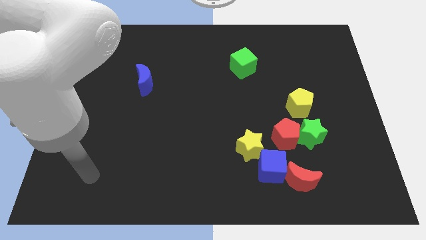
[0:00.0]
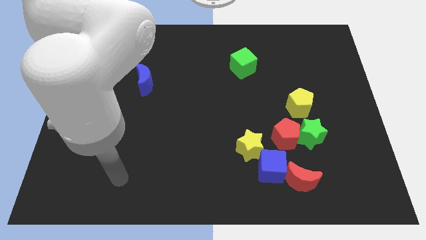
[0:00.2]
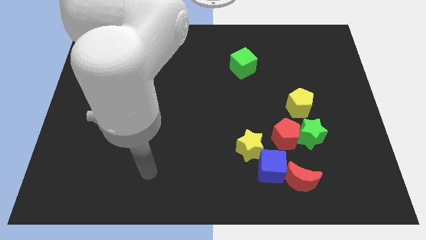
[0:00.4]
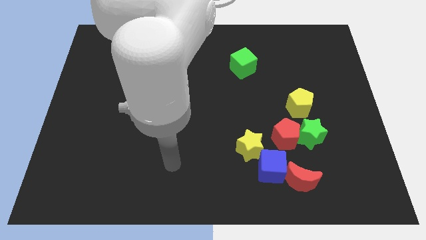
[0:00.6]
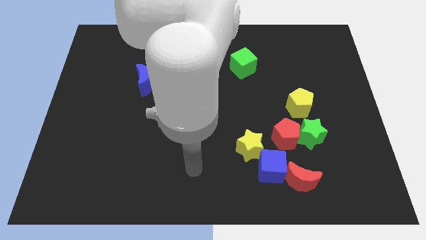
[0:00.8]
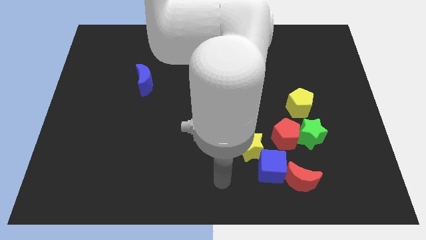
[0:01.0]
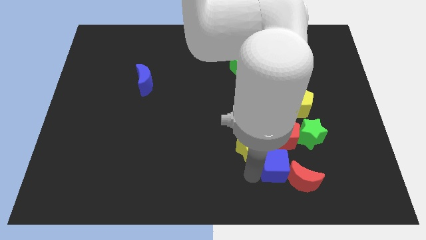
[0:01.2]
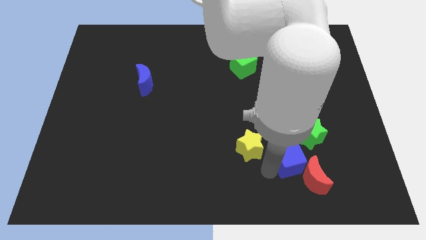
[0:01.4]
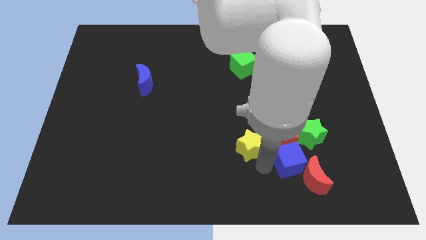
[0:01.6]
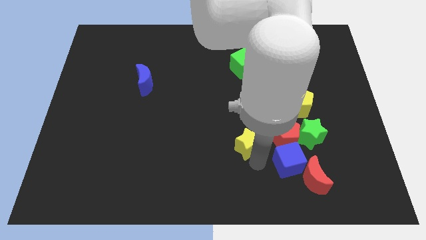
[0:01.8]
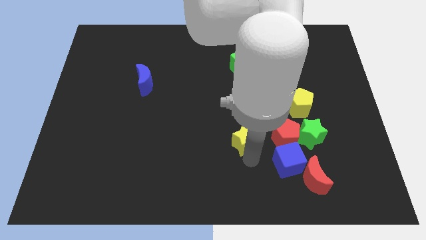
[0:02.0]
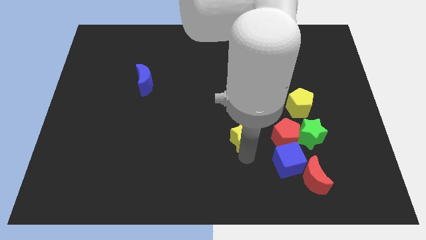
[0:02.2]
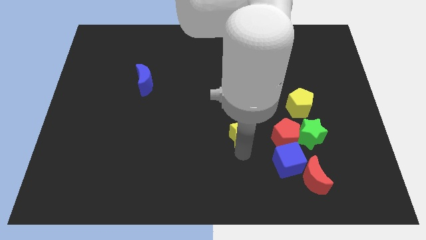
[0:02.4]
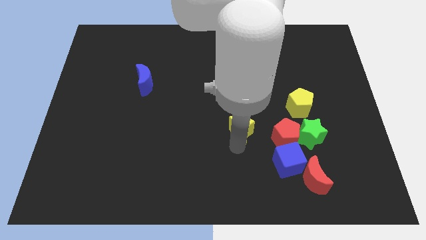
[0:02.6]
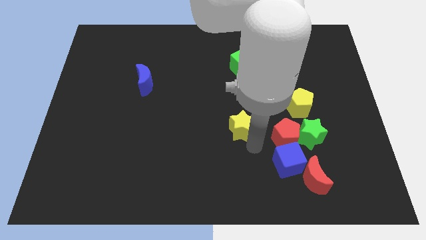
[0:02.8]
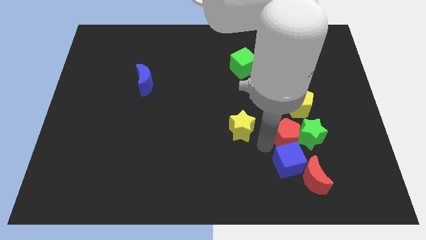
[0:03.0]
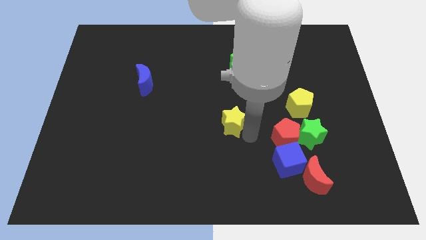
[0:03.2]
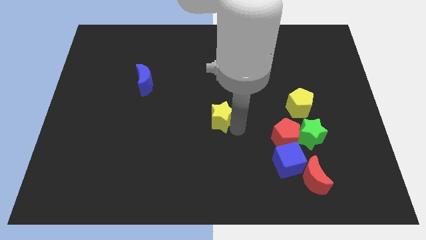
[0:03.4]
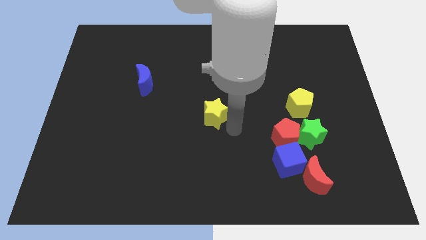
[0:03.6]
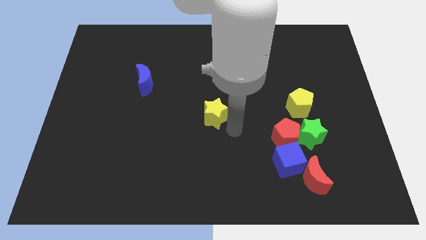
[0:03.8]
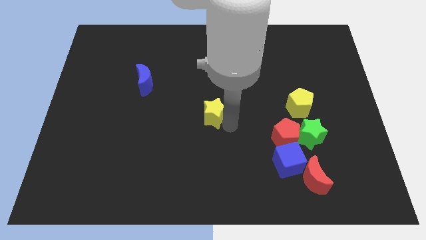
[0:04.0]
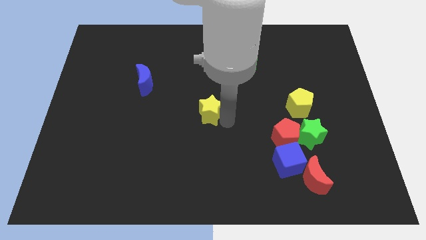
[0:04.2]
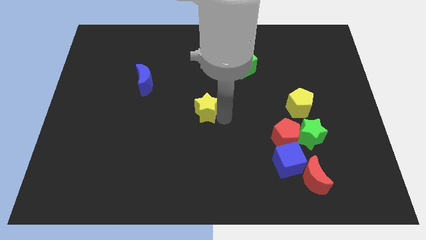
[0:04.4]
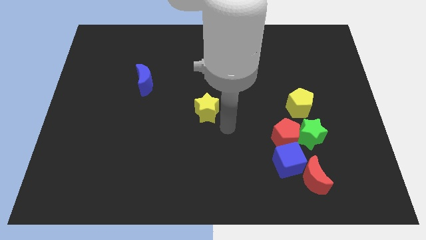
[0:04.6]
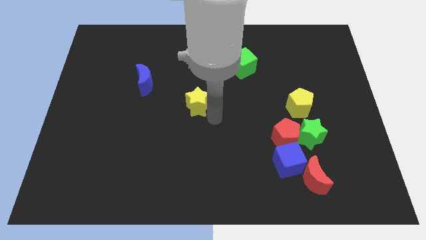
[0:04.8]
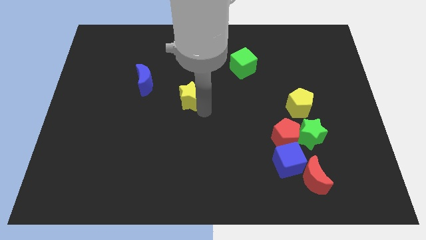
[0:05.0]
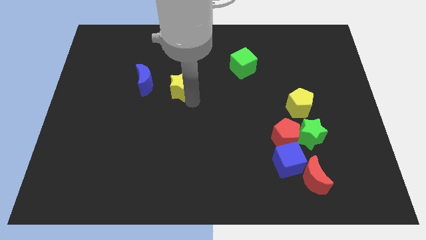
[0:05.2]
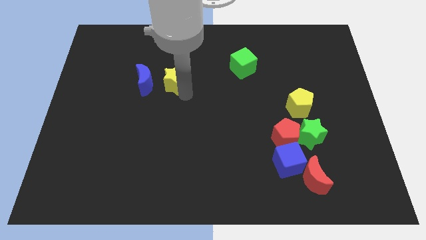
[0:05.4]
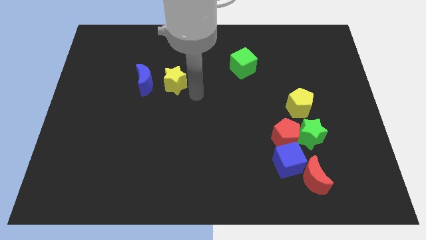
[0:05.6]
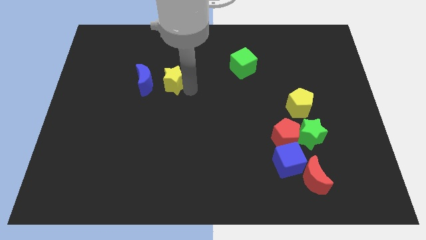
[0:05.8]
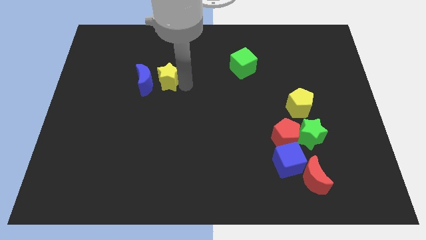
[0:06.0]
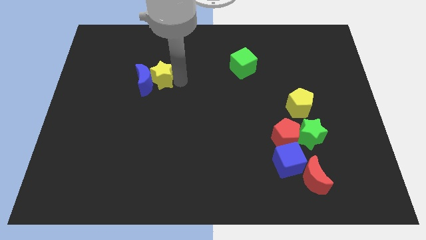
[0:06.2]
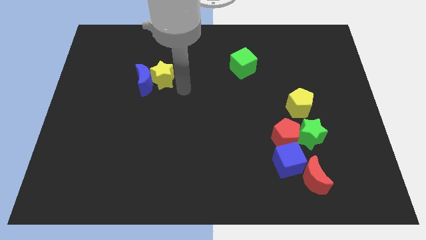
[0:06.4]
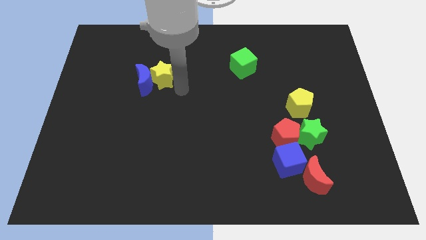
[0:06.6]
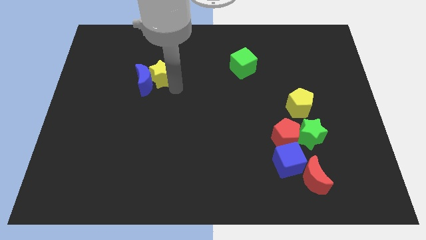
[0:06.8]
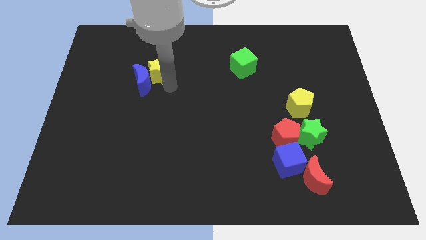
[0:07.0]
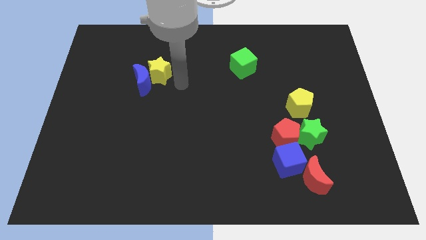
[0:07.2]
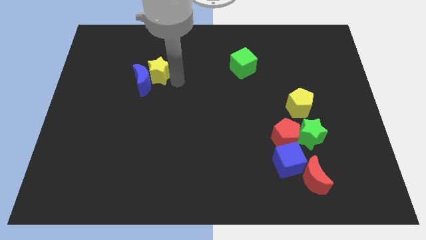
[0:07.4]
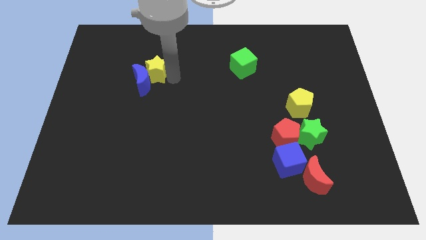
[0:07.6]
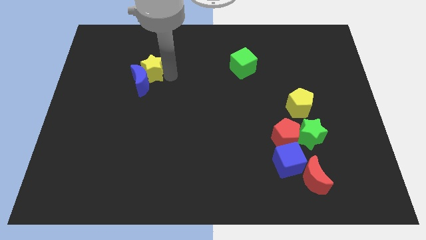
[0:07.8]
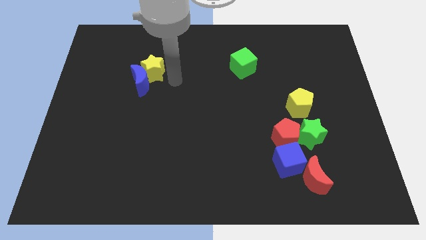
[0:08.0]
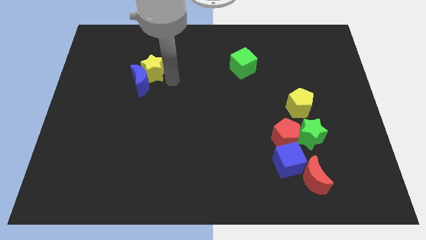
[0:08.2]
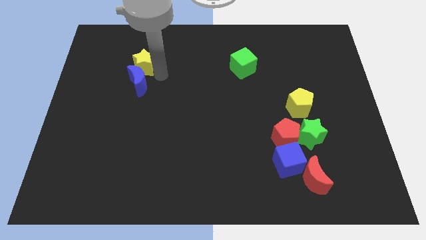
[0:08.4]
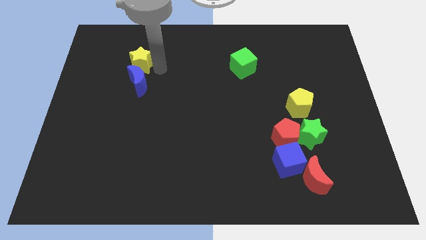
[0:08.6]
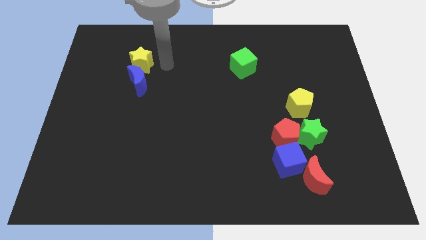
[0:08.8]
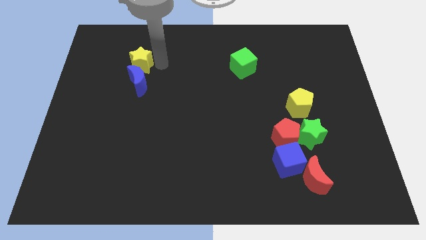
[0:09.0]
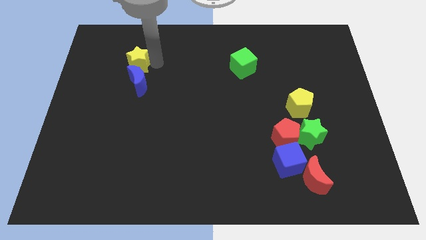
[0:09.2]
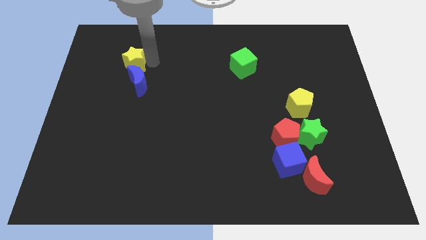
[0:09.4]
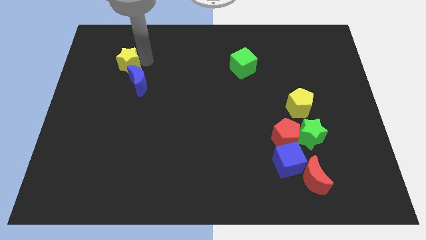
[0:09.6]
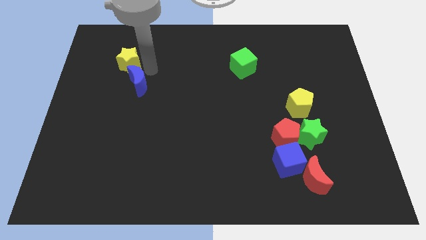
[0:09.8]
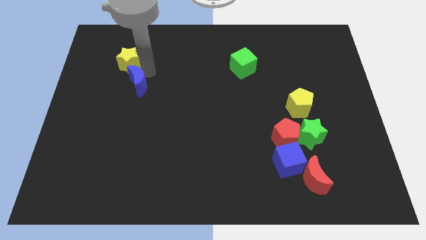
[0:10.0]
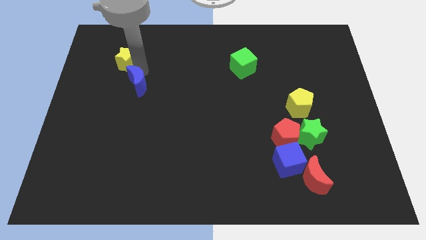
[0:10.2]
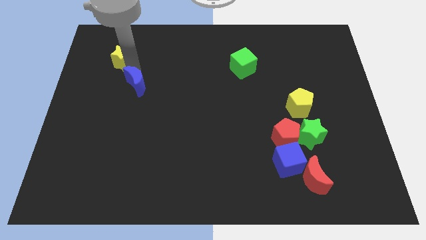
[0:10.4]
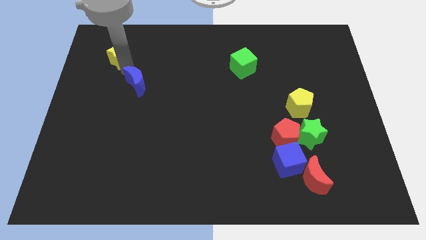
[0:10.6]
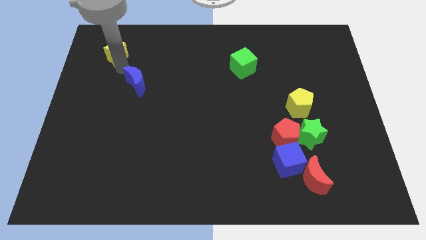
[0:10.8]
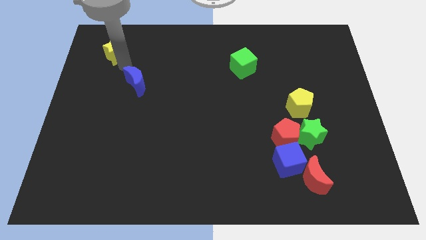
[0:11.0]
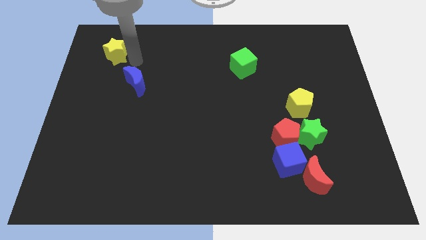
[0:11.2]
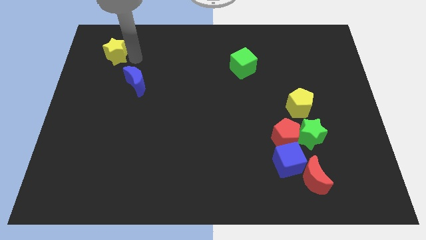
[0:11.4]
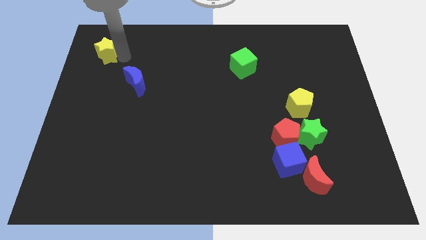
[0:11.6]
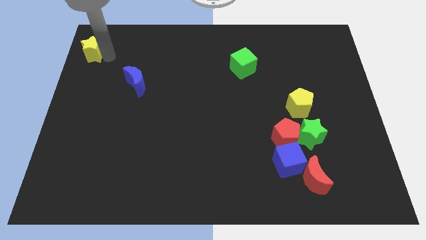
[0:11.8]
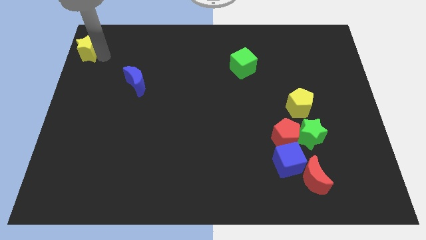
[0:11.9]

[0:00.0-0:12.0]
push the yellow star to the upper left corner
